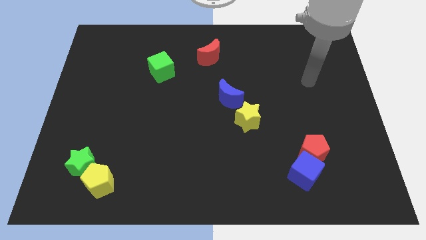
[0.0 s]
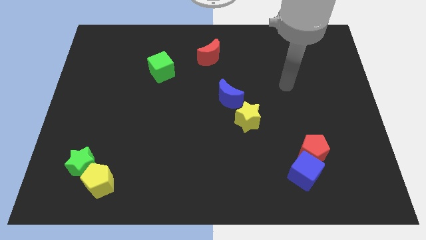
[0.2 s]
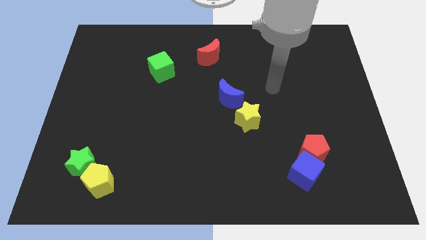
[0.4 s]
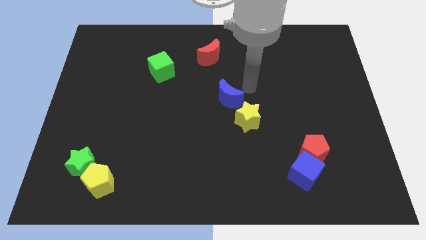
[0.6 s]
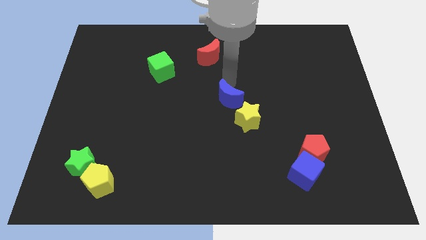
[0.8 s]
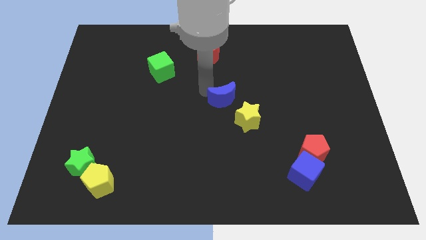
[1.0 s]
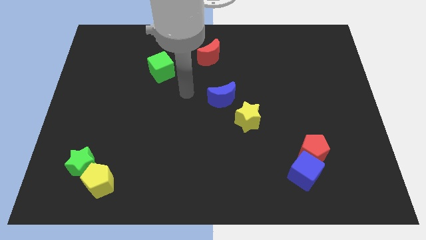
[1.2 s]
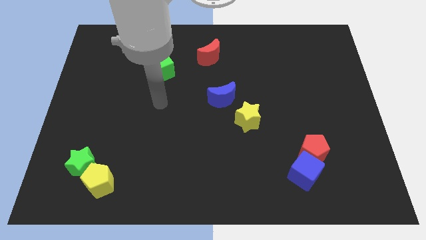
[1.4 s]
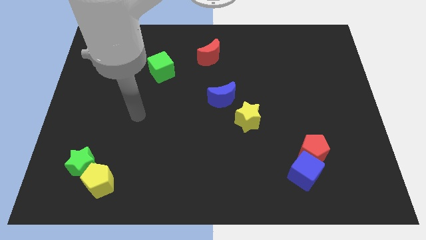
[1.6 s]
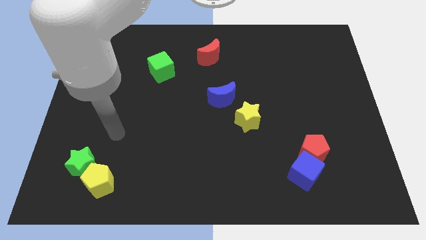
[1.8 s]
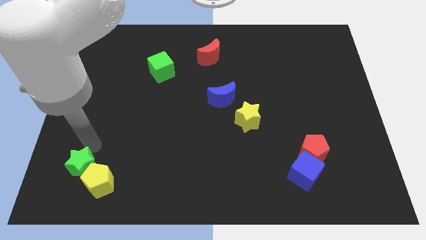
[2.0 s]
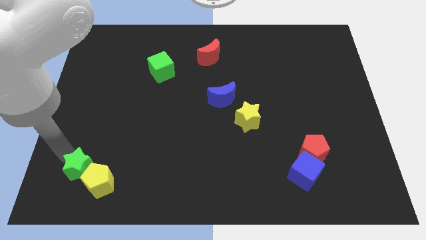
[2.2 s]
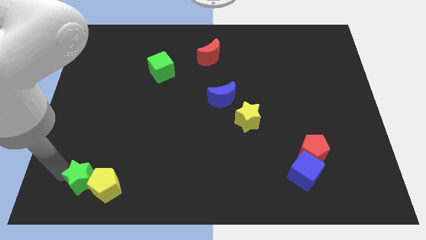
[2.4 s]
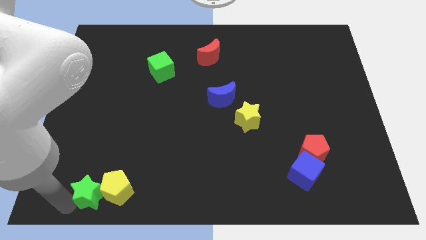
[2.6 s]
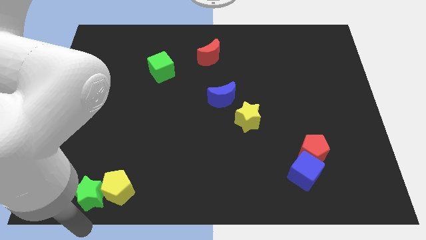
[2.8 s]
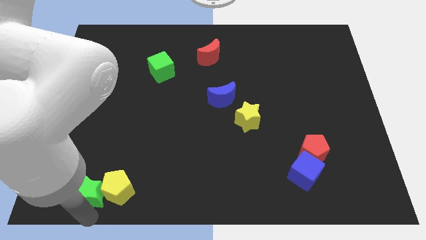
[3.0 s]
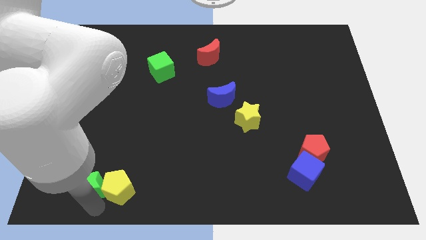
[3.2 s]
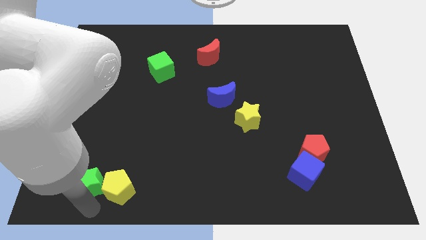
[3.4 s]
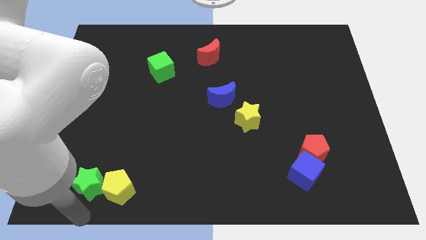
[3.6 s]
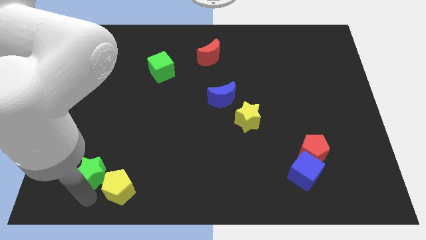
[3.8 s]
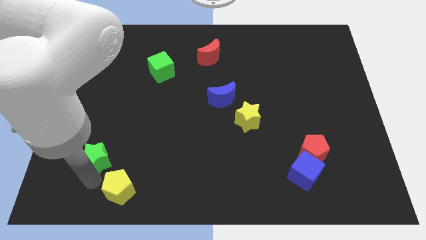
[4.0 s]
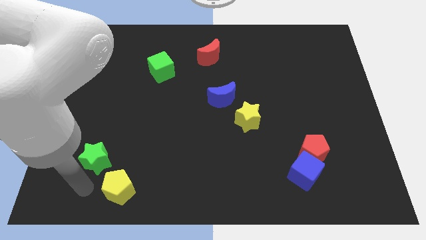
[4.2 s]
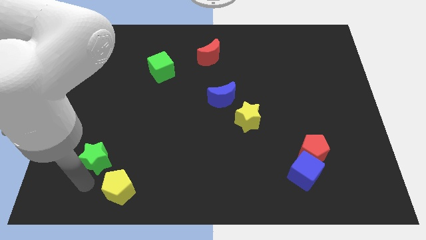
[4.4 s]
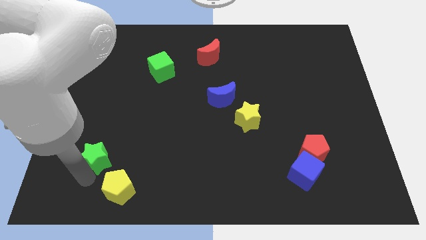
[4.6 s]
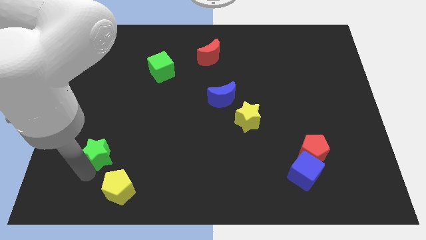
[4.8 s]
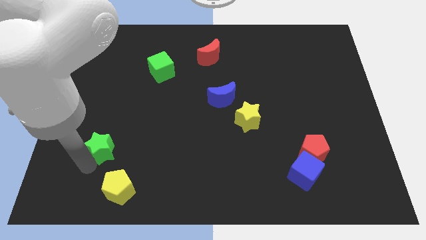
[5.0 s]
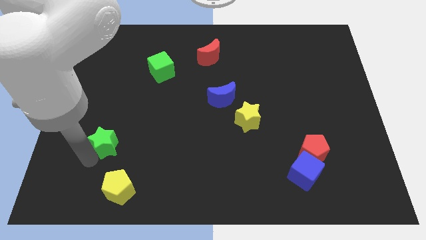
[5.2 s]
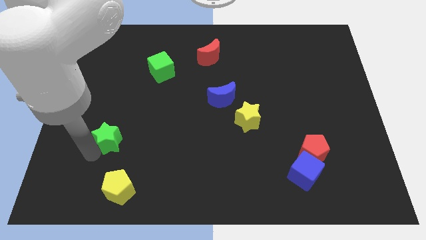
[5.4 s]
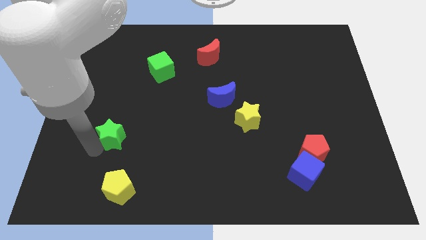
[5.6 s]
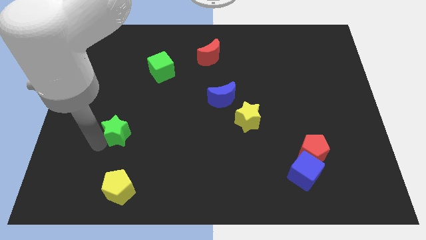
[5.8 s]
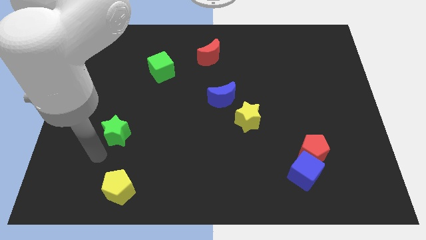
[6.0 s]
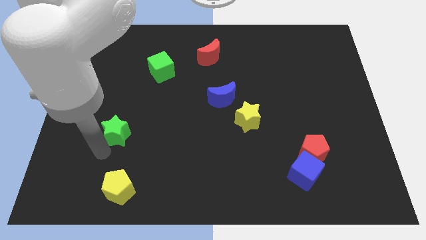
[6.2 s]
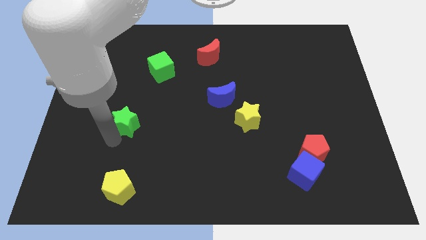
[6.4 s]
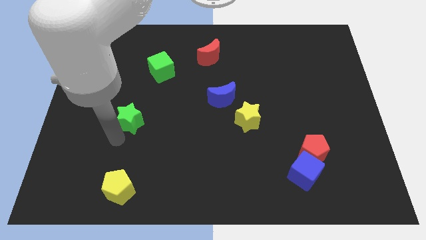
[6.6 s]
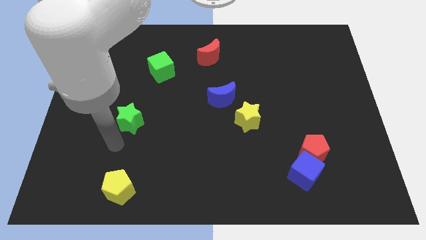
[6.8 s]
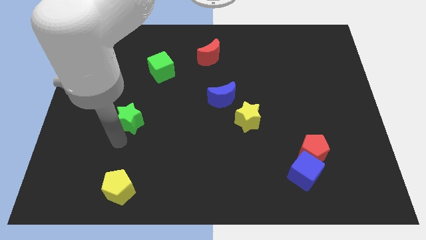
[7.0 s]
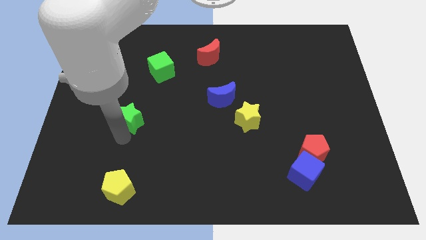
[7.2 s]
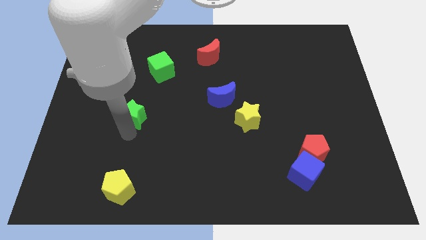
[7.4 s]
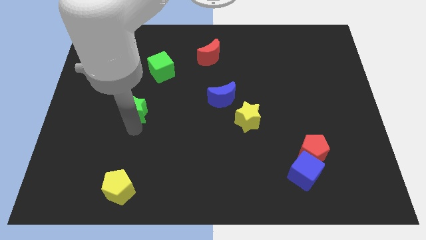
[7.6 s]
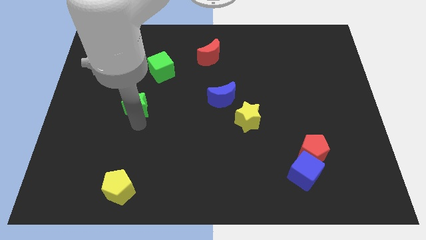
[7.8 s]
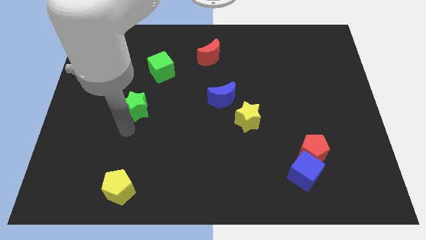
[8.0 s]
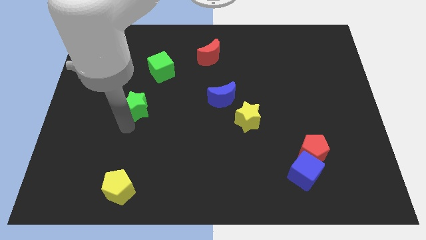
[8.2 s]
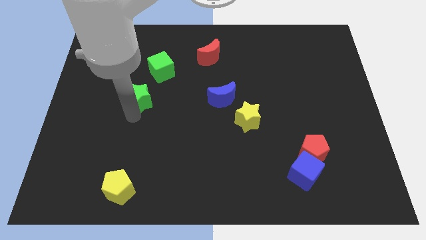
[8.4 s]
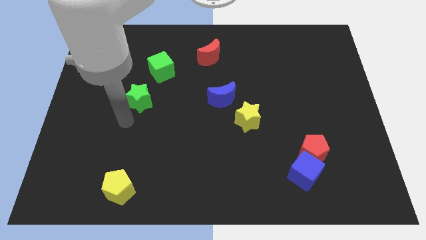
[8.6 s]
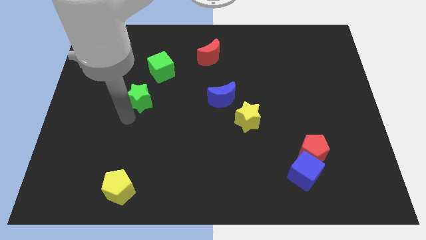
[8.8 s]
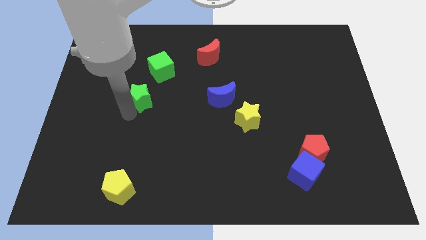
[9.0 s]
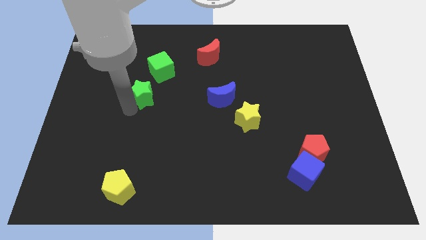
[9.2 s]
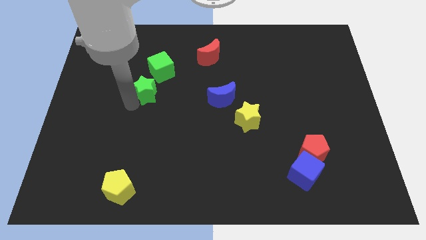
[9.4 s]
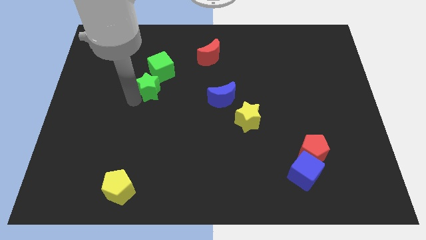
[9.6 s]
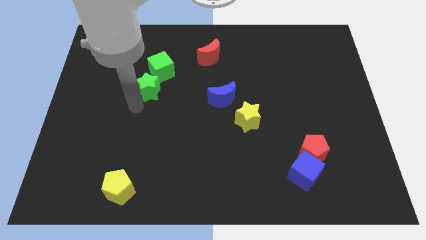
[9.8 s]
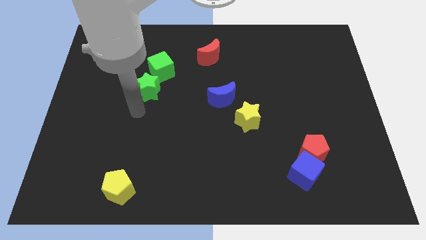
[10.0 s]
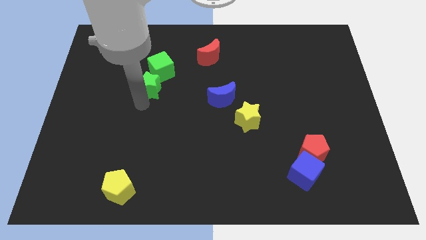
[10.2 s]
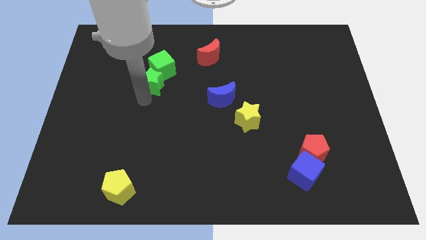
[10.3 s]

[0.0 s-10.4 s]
put the green star to the green cube

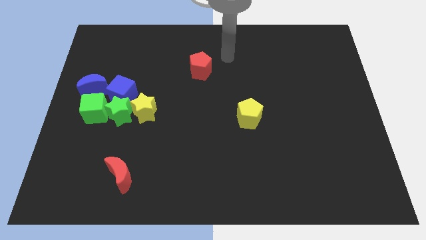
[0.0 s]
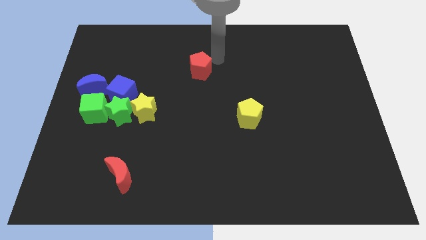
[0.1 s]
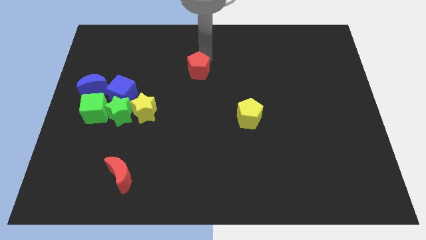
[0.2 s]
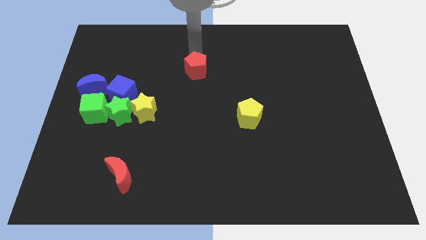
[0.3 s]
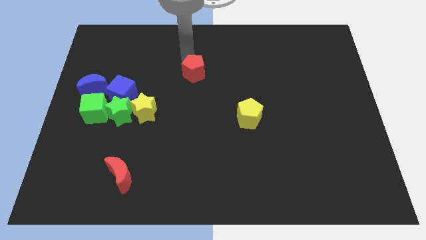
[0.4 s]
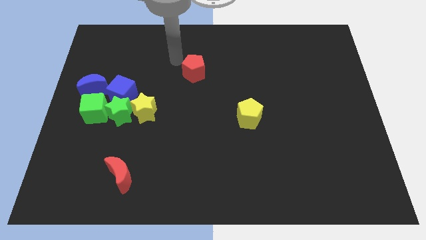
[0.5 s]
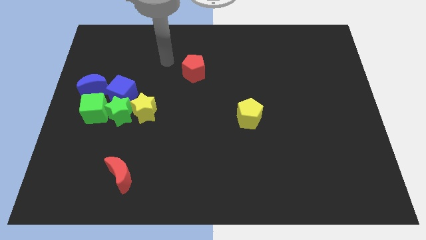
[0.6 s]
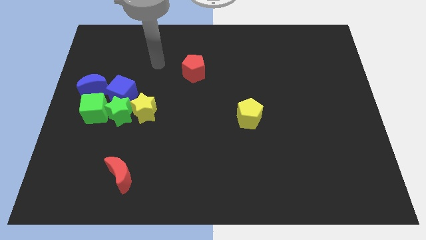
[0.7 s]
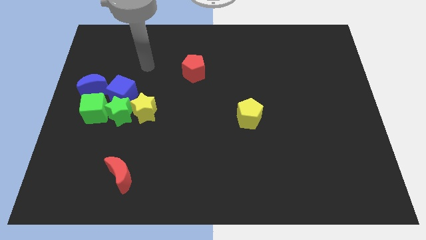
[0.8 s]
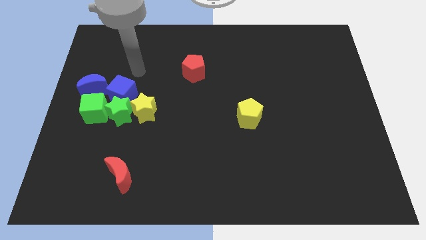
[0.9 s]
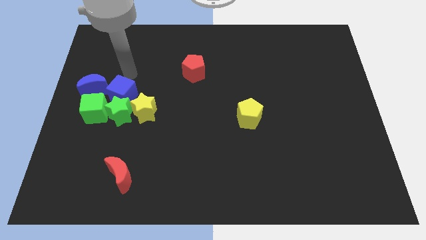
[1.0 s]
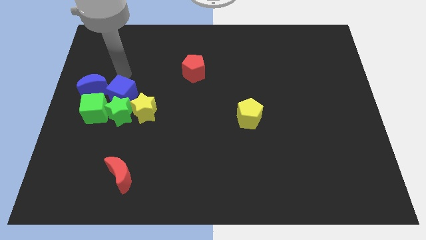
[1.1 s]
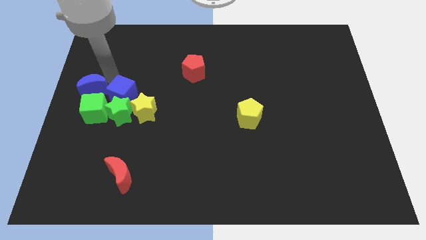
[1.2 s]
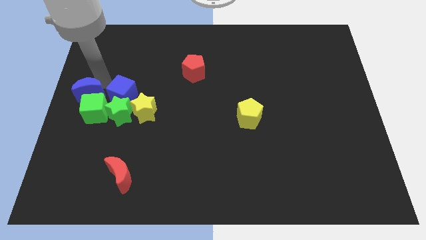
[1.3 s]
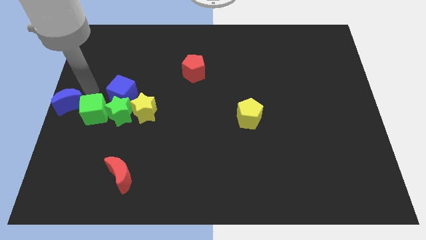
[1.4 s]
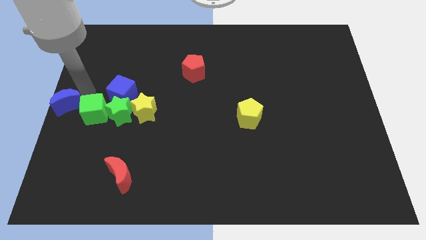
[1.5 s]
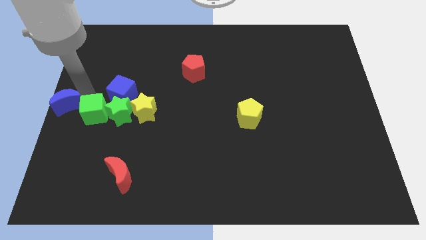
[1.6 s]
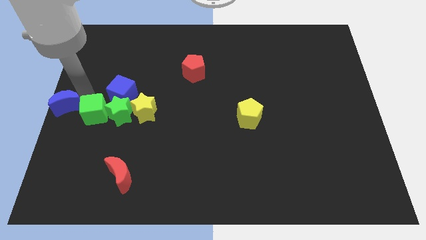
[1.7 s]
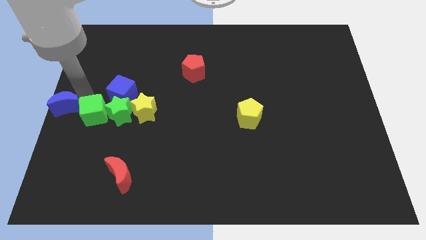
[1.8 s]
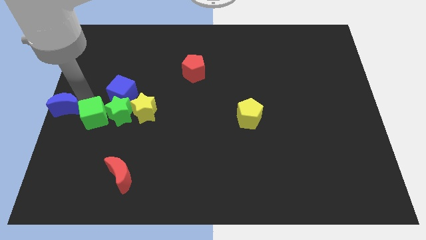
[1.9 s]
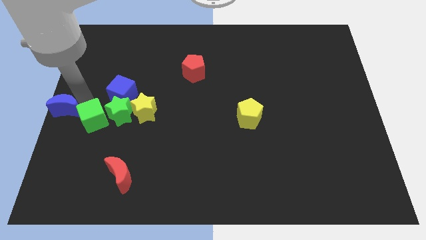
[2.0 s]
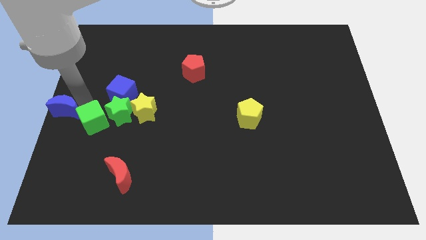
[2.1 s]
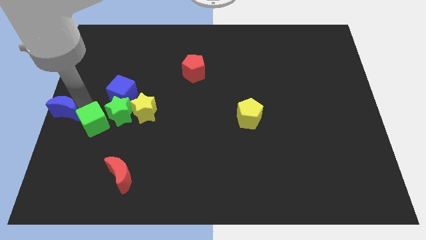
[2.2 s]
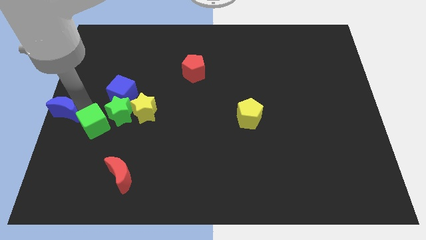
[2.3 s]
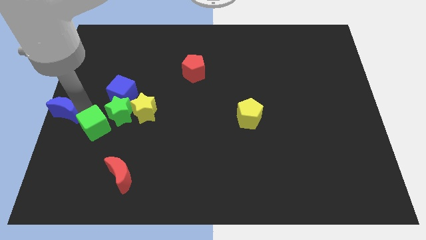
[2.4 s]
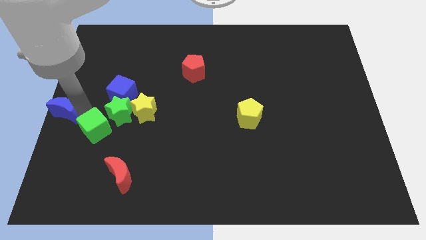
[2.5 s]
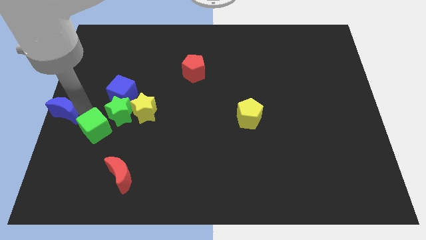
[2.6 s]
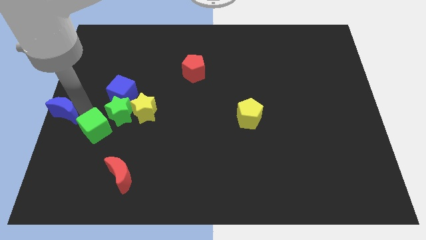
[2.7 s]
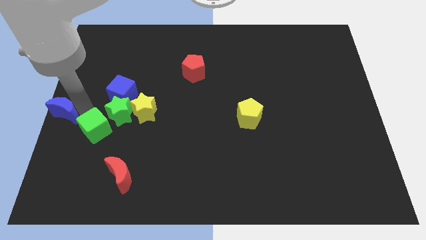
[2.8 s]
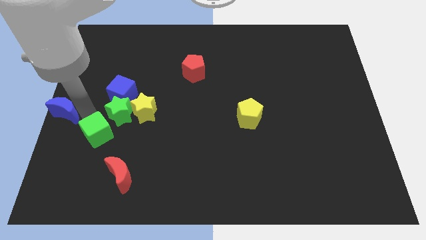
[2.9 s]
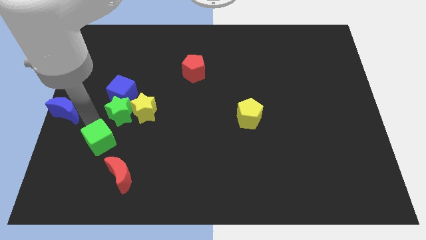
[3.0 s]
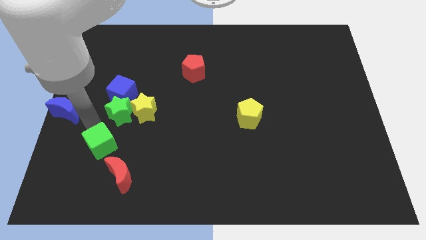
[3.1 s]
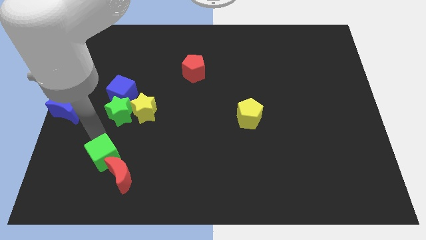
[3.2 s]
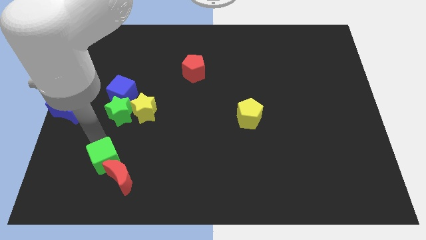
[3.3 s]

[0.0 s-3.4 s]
push the green cube next to the red moon
